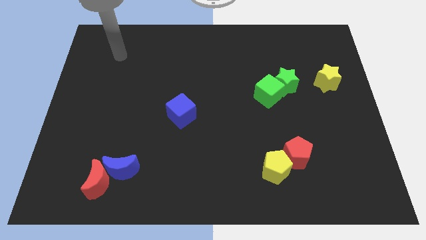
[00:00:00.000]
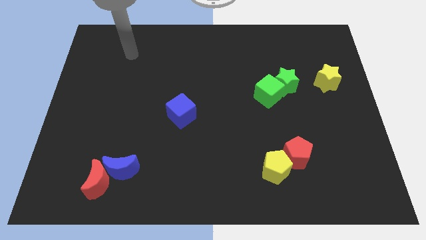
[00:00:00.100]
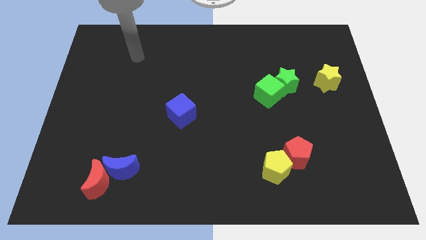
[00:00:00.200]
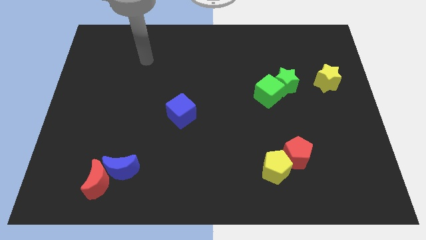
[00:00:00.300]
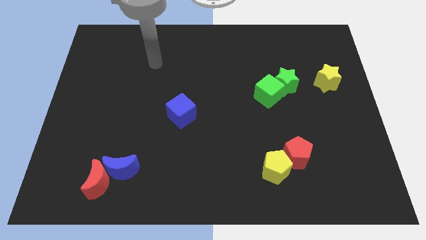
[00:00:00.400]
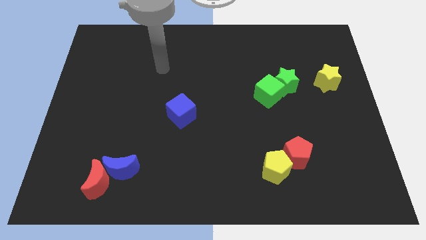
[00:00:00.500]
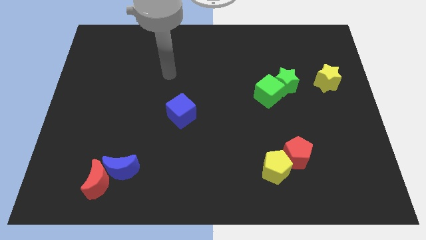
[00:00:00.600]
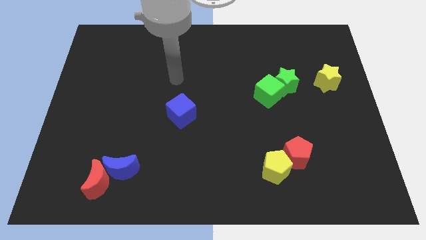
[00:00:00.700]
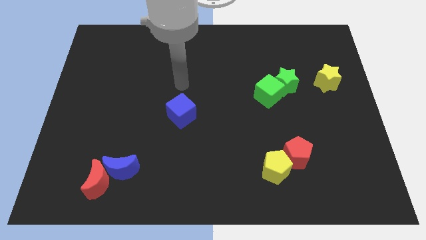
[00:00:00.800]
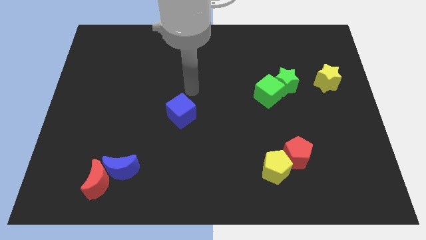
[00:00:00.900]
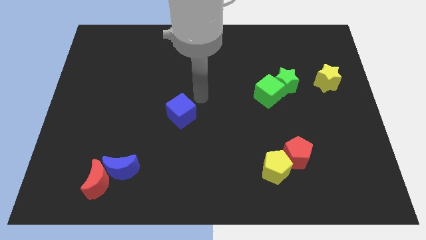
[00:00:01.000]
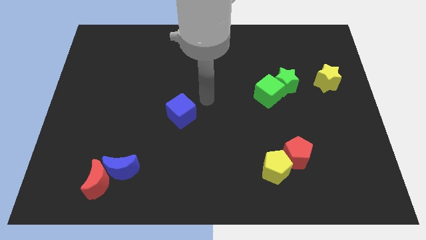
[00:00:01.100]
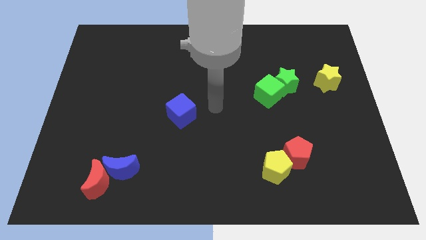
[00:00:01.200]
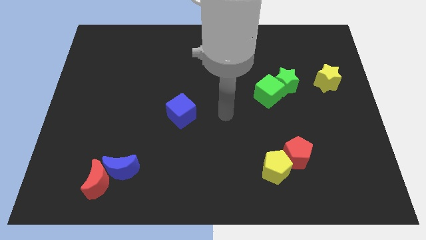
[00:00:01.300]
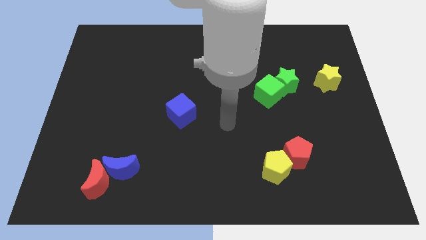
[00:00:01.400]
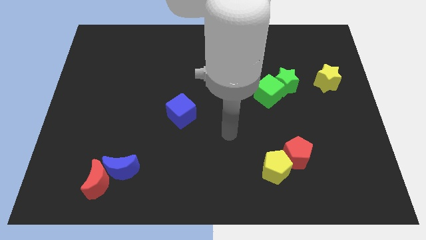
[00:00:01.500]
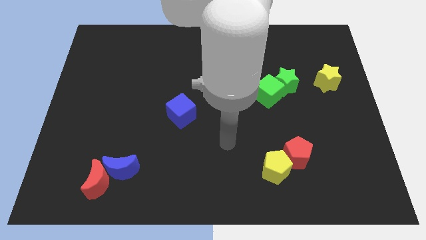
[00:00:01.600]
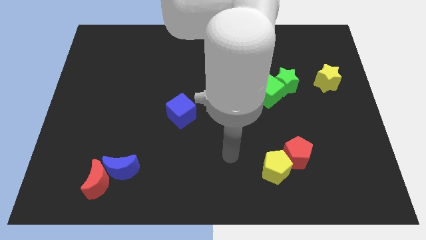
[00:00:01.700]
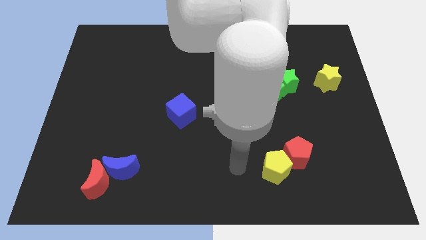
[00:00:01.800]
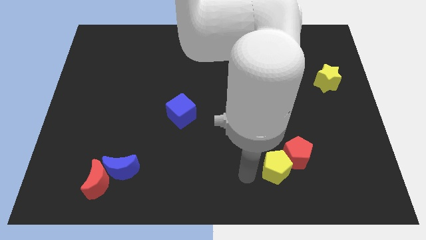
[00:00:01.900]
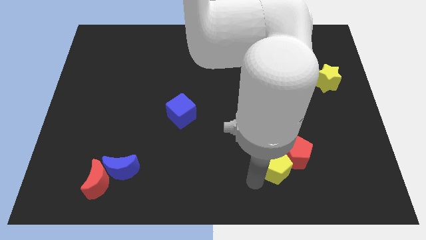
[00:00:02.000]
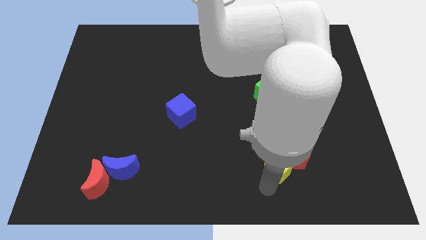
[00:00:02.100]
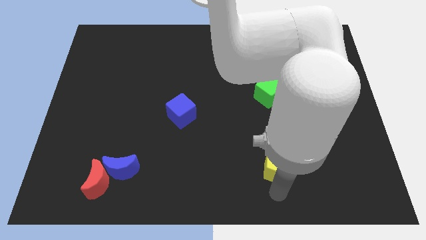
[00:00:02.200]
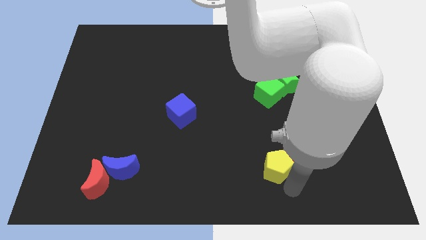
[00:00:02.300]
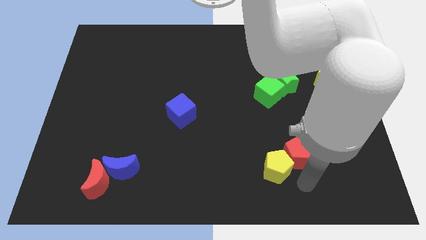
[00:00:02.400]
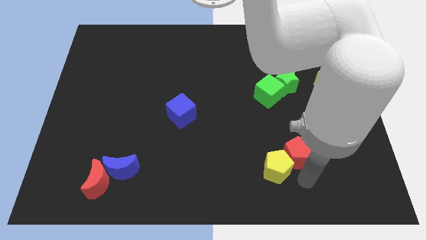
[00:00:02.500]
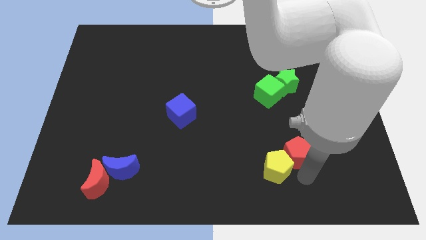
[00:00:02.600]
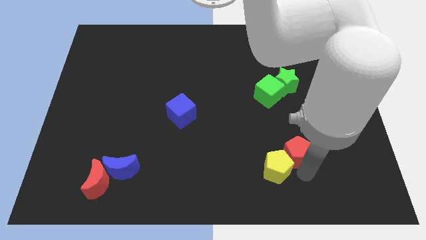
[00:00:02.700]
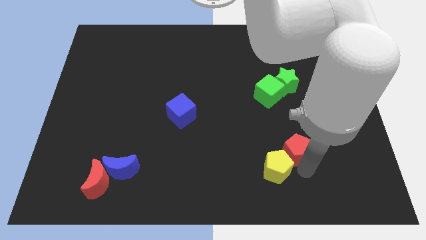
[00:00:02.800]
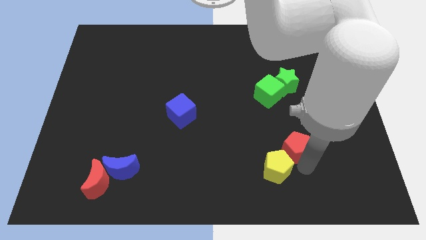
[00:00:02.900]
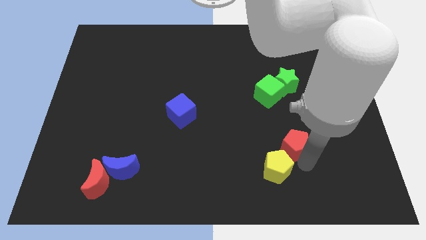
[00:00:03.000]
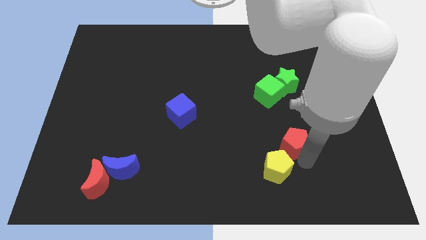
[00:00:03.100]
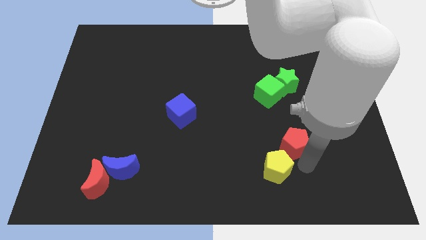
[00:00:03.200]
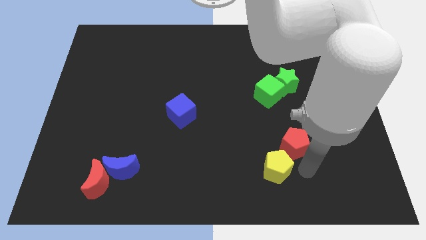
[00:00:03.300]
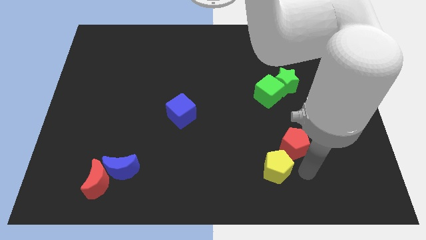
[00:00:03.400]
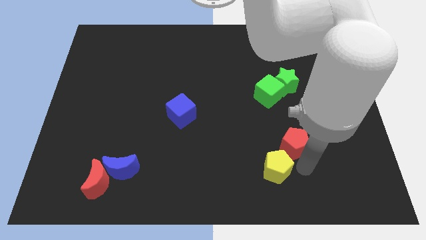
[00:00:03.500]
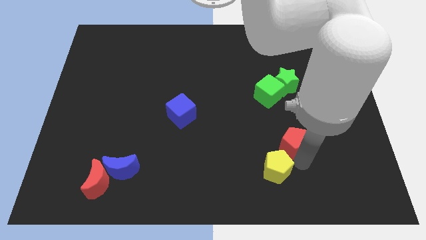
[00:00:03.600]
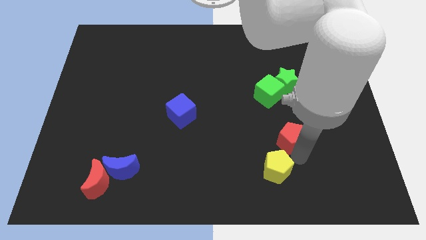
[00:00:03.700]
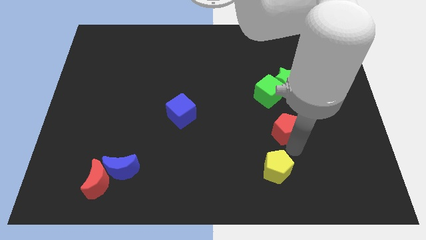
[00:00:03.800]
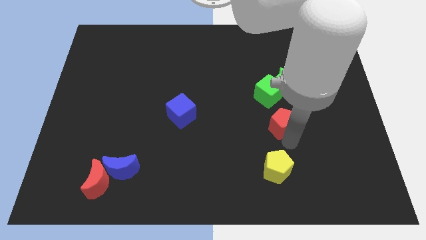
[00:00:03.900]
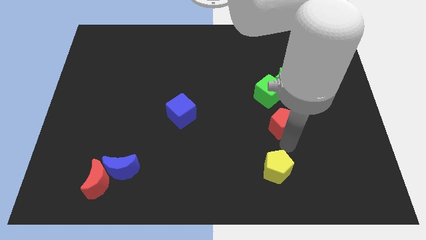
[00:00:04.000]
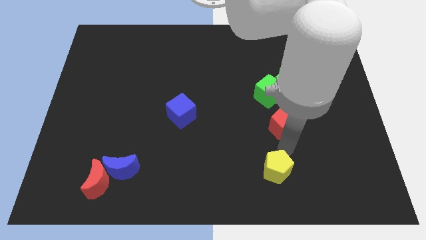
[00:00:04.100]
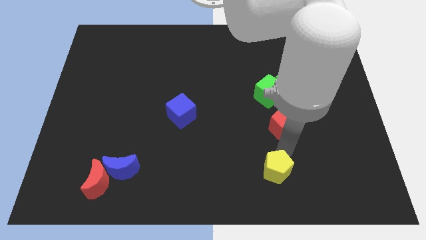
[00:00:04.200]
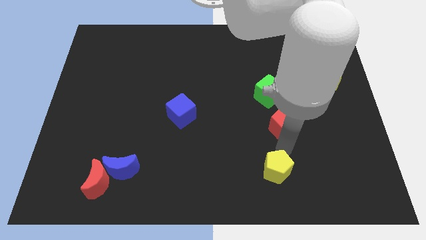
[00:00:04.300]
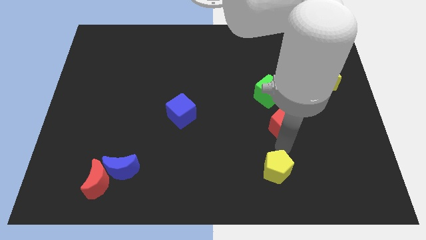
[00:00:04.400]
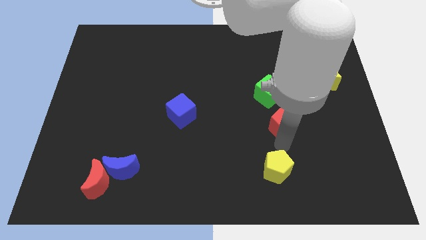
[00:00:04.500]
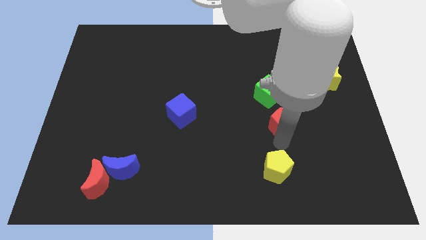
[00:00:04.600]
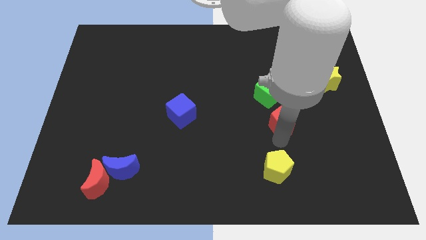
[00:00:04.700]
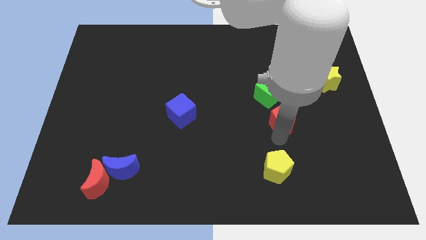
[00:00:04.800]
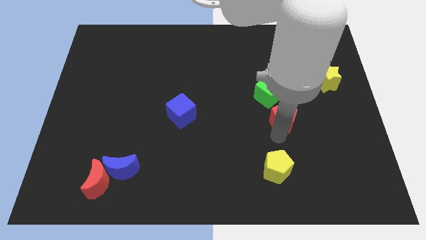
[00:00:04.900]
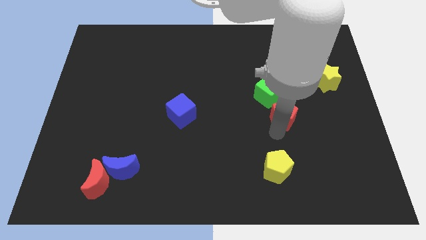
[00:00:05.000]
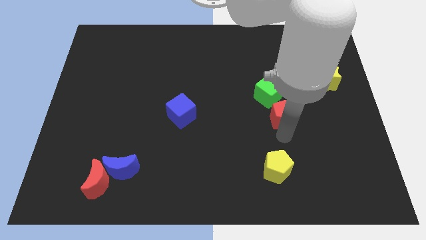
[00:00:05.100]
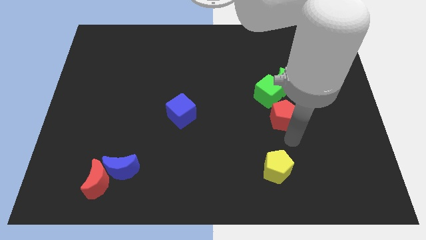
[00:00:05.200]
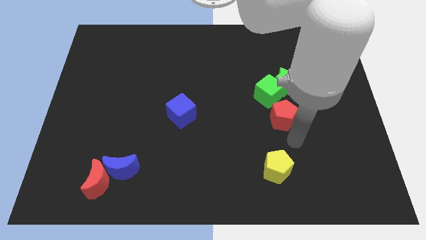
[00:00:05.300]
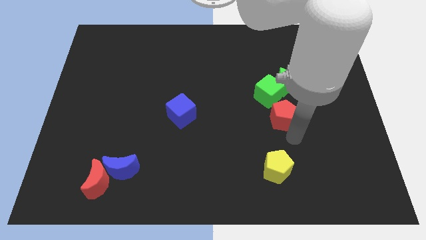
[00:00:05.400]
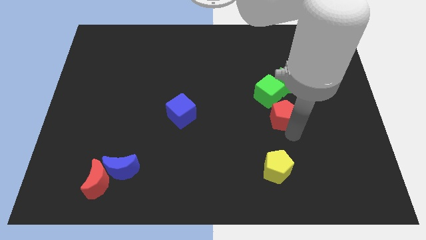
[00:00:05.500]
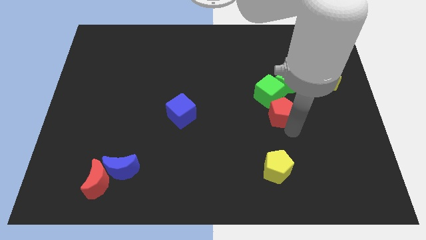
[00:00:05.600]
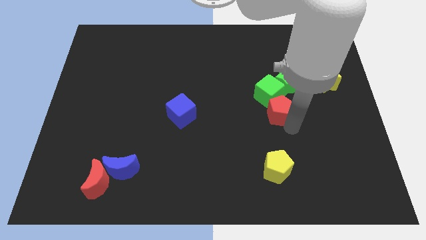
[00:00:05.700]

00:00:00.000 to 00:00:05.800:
move the red pentagon to the green cube

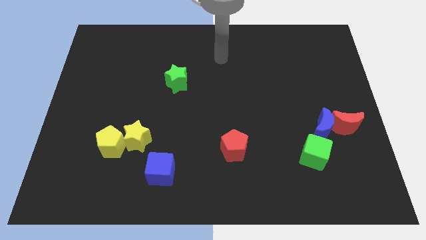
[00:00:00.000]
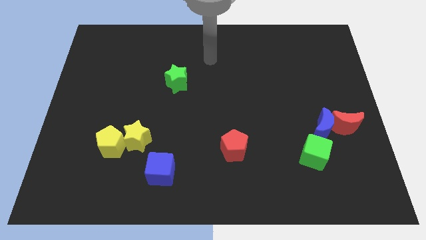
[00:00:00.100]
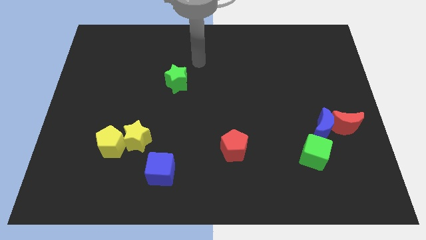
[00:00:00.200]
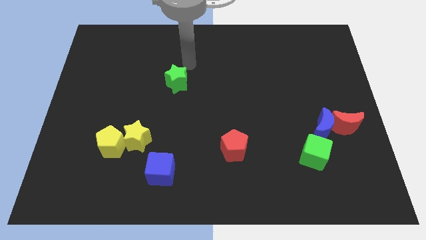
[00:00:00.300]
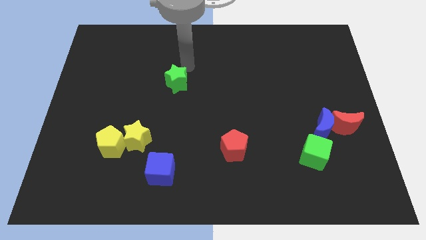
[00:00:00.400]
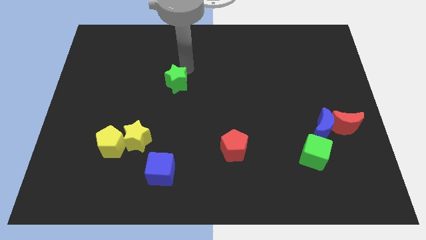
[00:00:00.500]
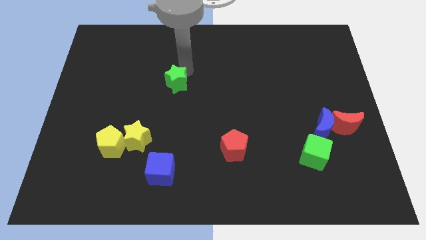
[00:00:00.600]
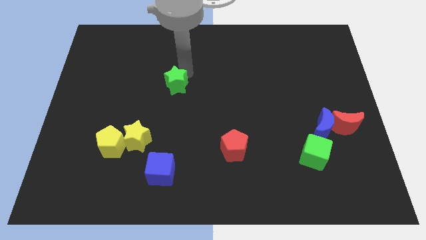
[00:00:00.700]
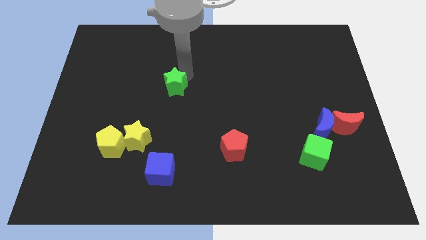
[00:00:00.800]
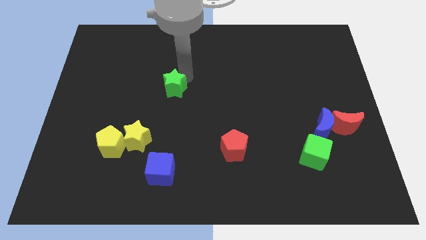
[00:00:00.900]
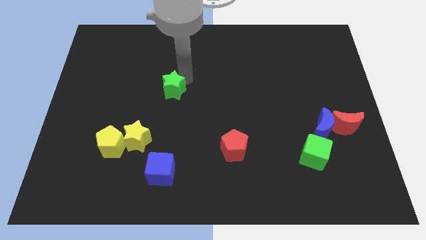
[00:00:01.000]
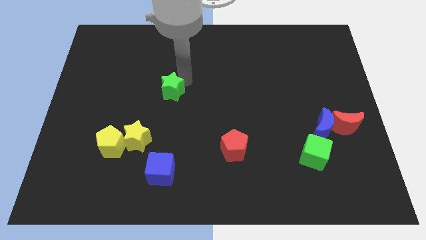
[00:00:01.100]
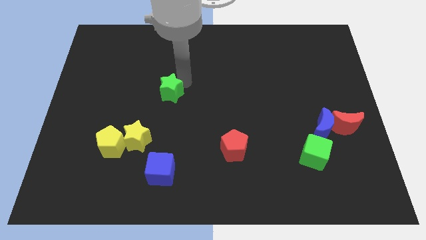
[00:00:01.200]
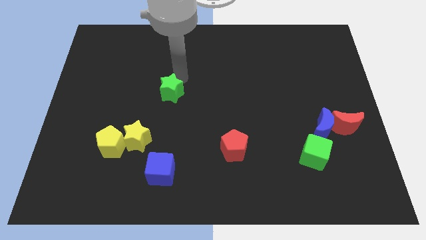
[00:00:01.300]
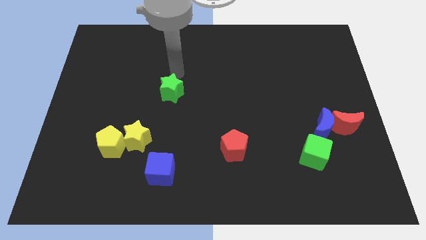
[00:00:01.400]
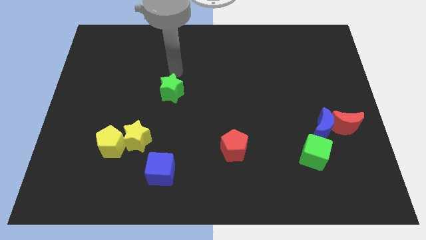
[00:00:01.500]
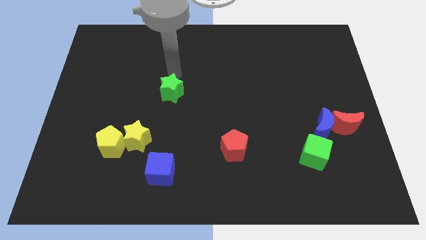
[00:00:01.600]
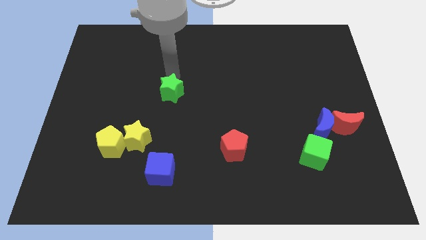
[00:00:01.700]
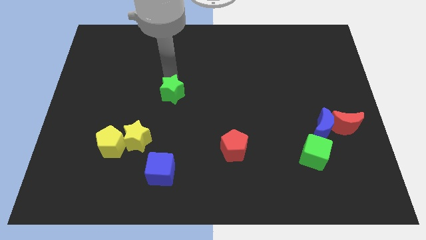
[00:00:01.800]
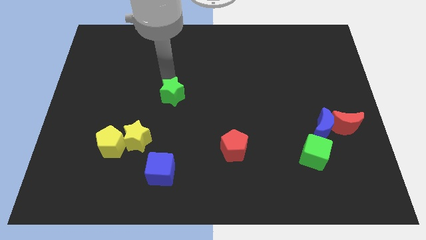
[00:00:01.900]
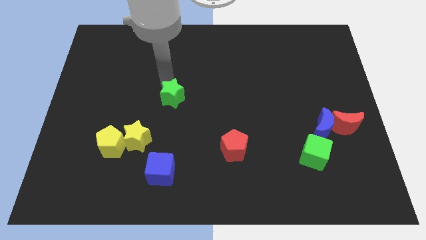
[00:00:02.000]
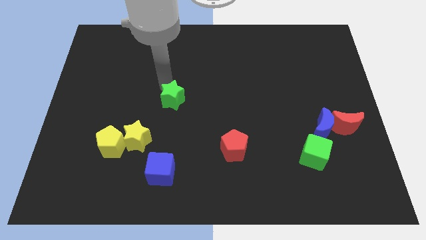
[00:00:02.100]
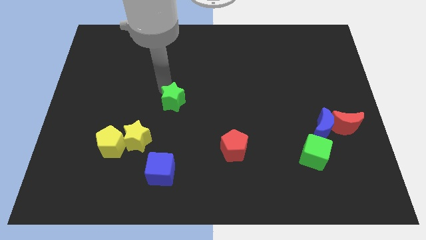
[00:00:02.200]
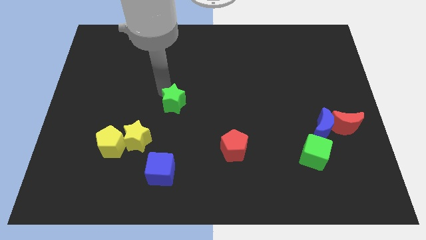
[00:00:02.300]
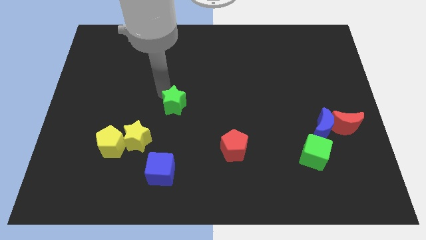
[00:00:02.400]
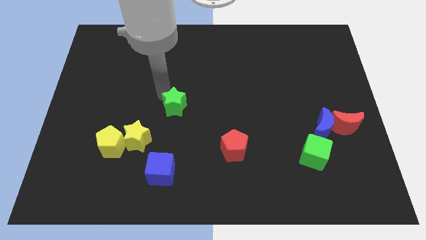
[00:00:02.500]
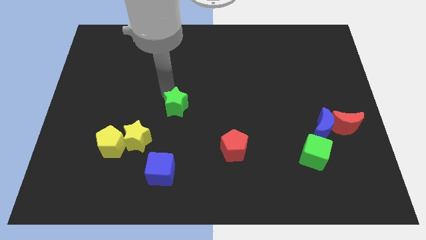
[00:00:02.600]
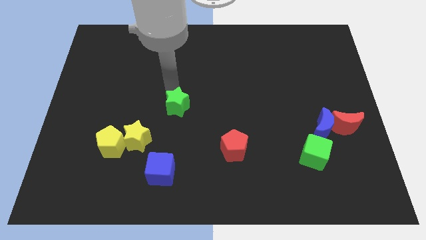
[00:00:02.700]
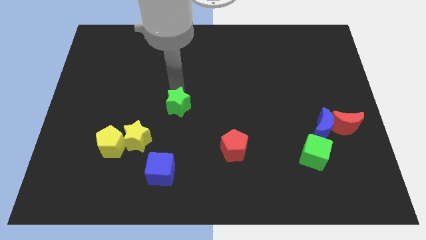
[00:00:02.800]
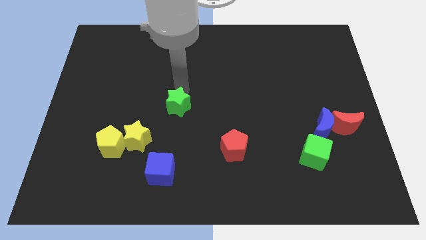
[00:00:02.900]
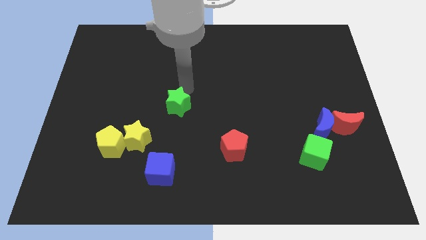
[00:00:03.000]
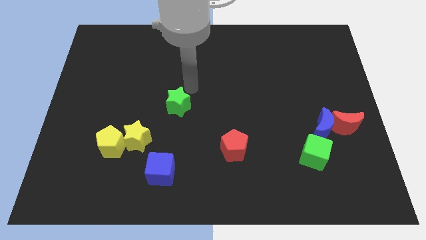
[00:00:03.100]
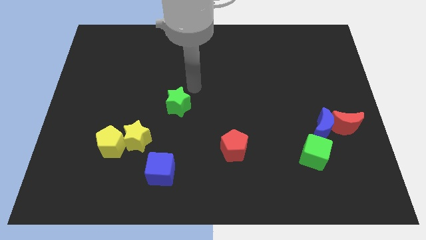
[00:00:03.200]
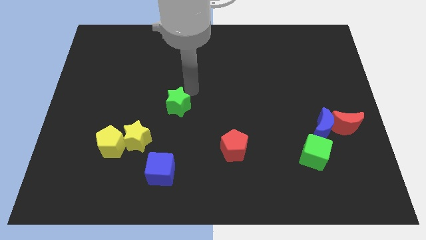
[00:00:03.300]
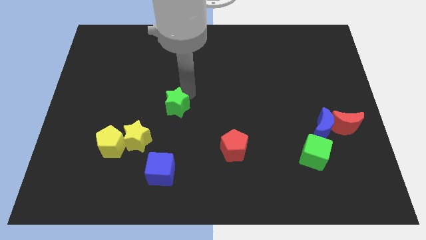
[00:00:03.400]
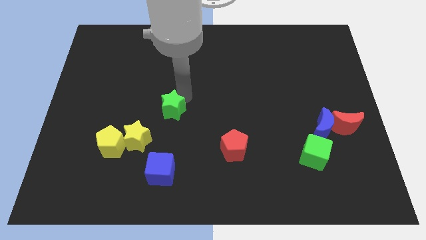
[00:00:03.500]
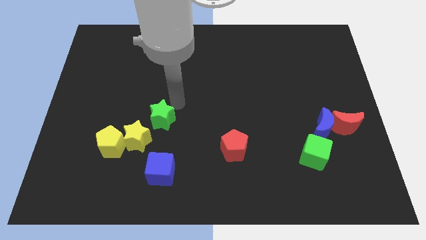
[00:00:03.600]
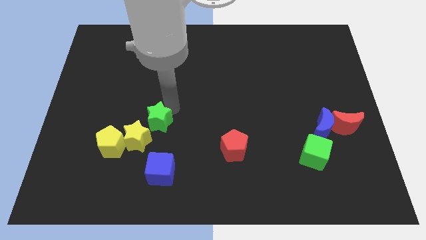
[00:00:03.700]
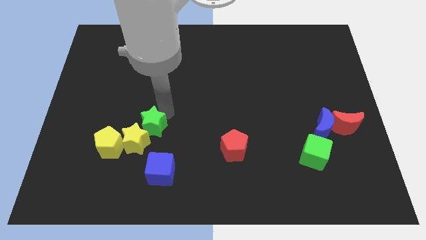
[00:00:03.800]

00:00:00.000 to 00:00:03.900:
put the green star close to the yellow star
